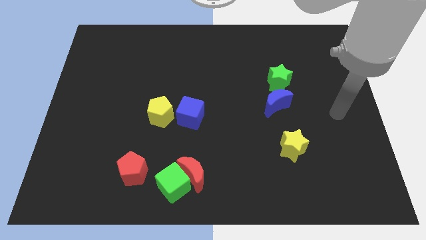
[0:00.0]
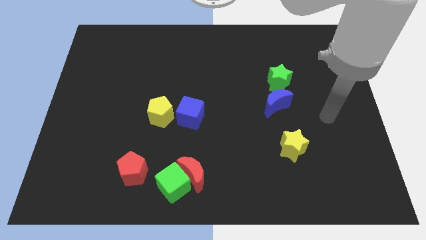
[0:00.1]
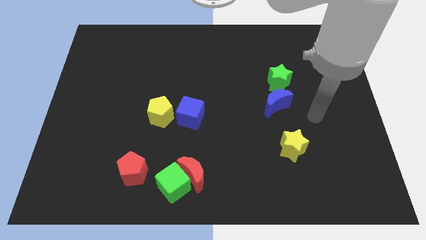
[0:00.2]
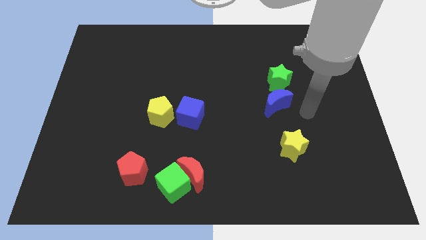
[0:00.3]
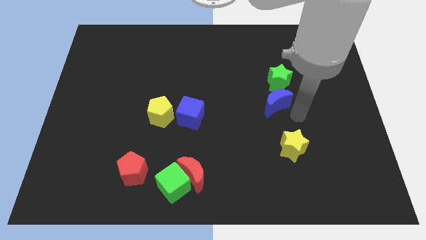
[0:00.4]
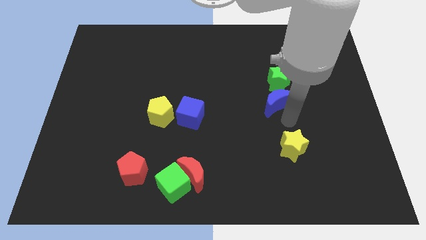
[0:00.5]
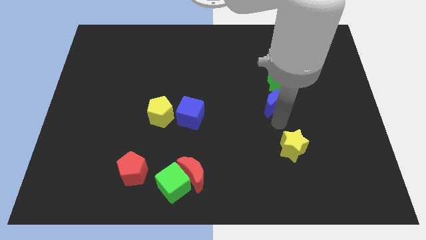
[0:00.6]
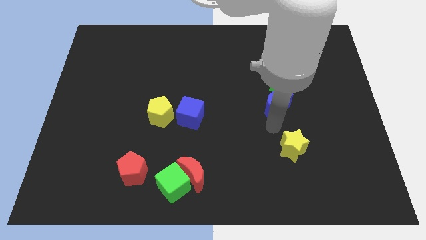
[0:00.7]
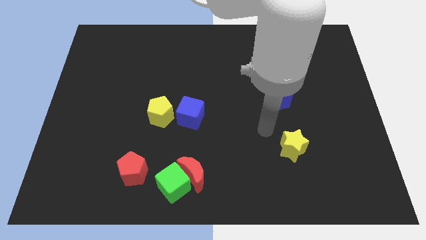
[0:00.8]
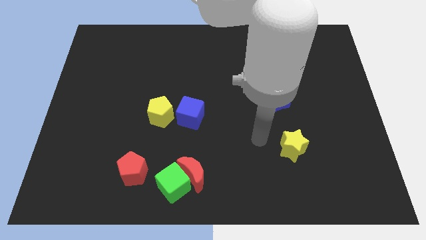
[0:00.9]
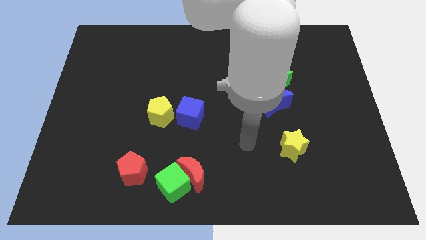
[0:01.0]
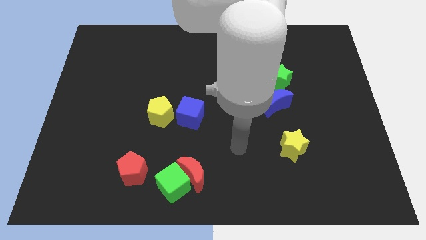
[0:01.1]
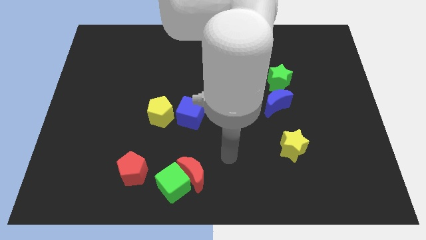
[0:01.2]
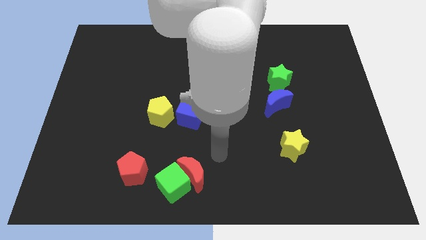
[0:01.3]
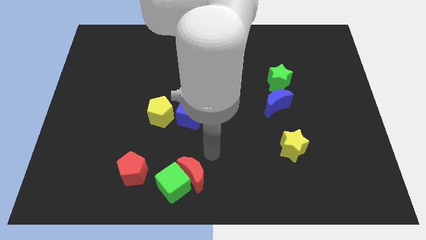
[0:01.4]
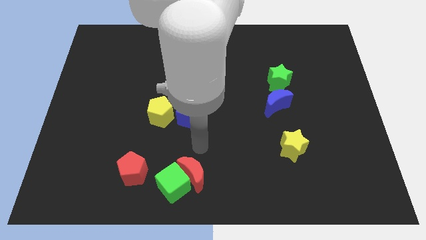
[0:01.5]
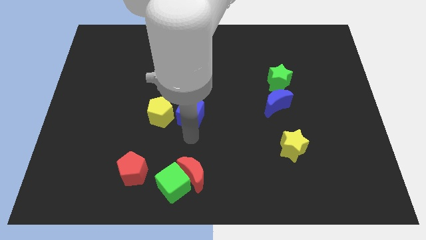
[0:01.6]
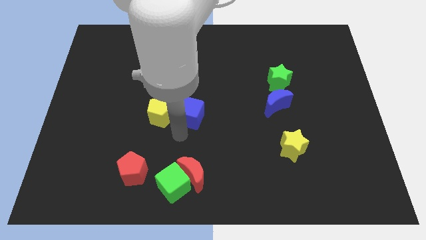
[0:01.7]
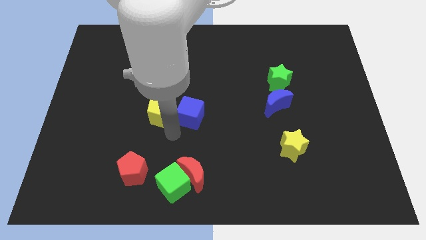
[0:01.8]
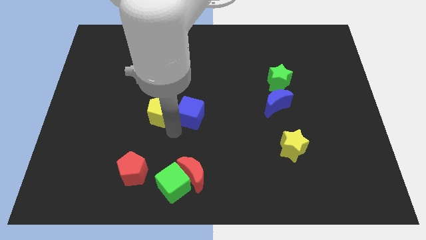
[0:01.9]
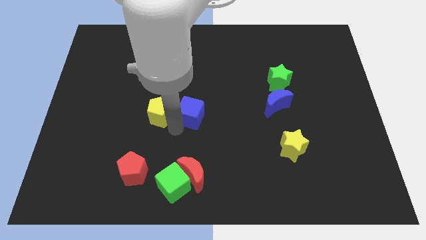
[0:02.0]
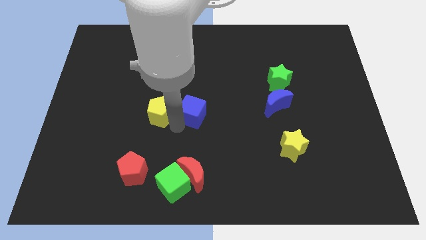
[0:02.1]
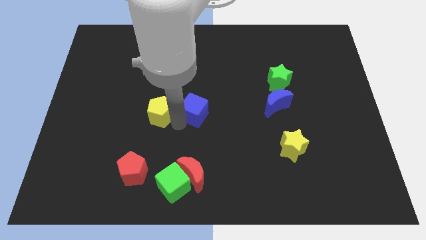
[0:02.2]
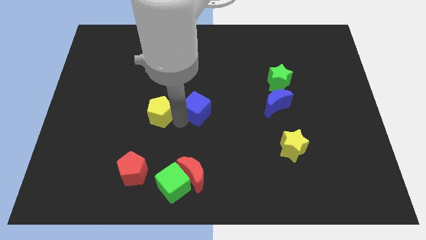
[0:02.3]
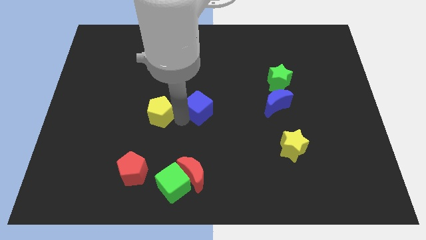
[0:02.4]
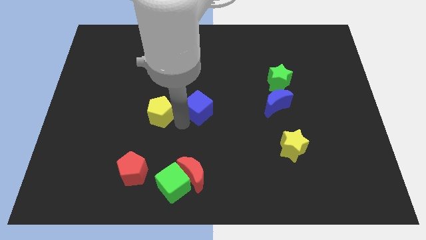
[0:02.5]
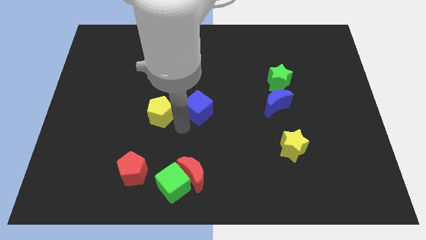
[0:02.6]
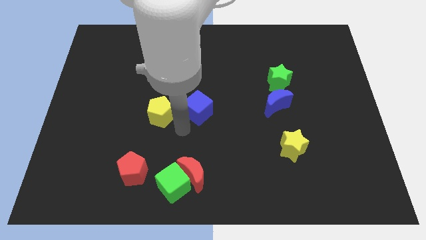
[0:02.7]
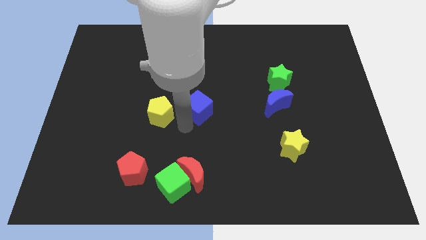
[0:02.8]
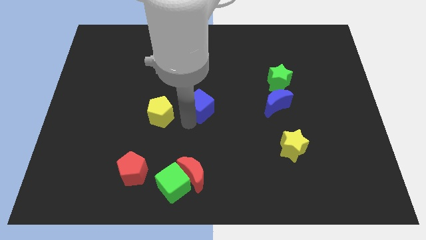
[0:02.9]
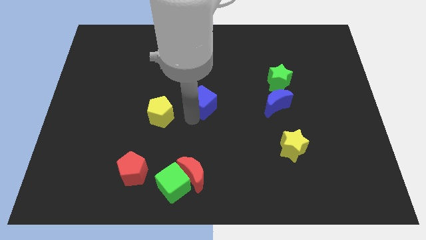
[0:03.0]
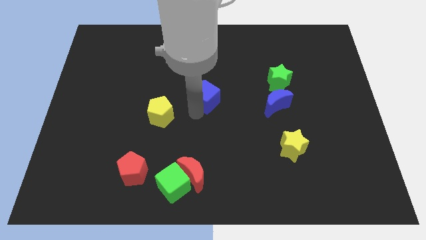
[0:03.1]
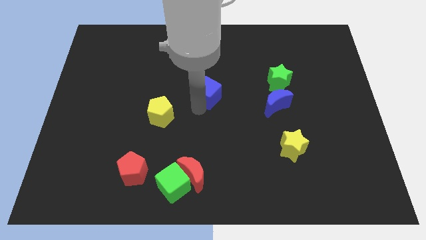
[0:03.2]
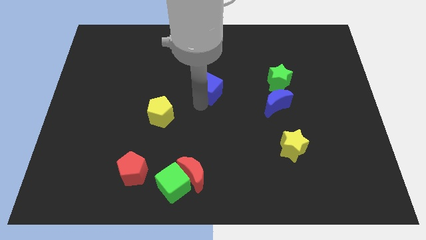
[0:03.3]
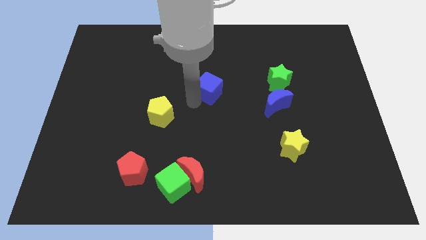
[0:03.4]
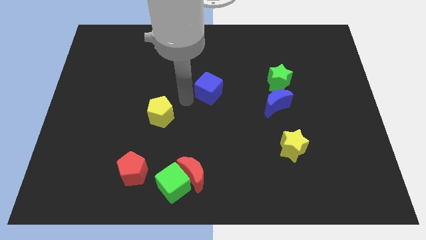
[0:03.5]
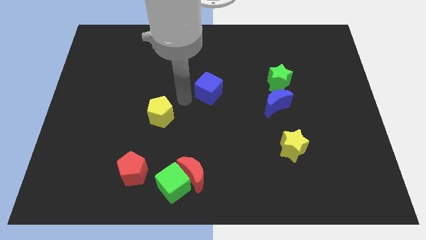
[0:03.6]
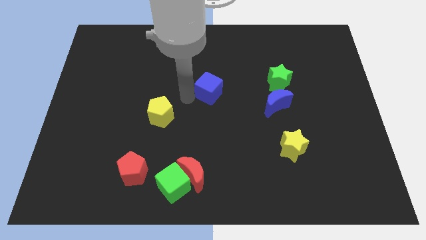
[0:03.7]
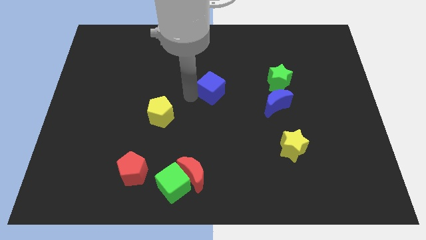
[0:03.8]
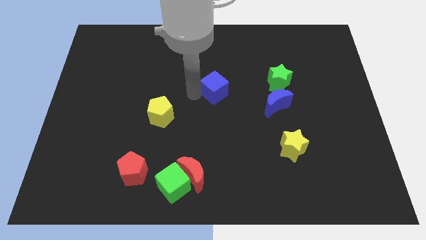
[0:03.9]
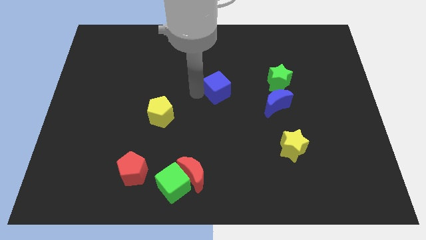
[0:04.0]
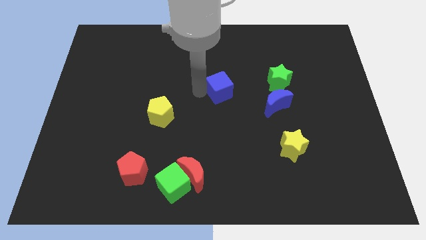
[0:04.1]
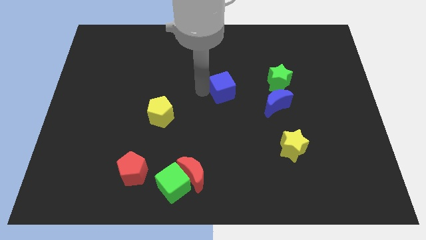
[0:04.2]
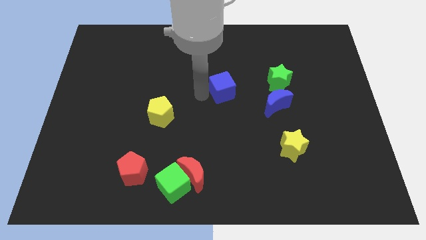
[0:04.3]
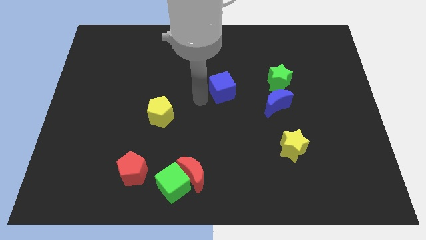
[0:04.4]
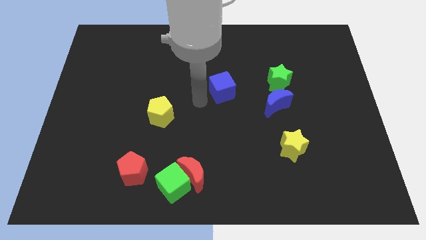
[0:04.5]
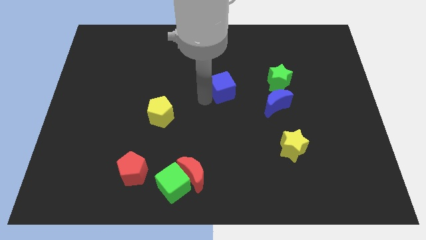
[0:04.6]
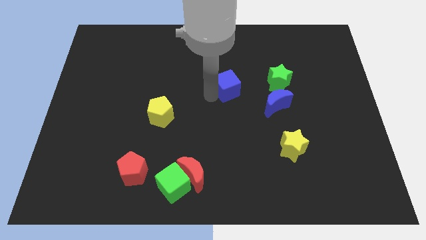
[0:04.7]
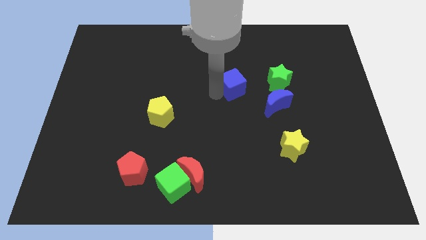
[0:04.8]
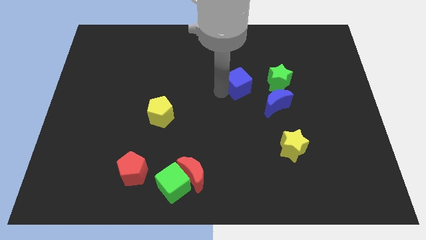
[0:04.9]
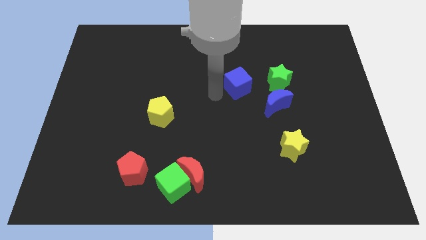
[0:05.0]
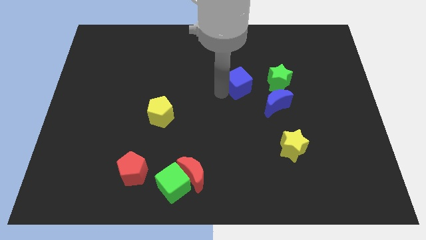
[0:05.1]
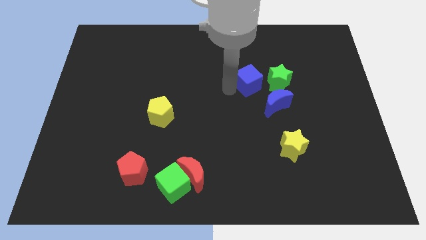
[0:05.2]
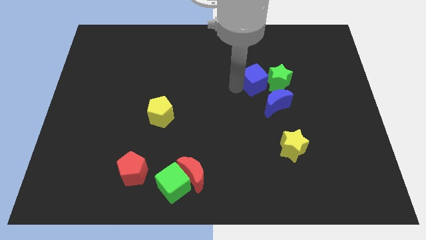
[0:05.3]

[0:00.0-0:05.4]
move the blue cube above the blue moon

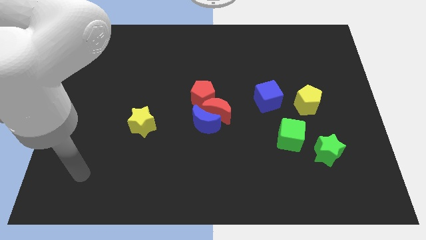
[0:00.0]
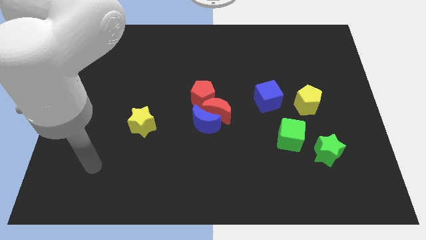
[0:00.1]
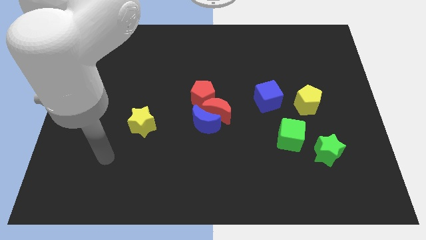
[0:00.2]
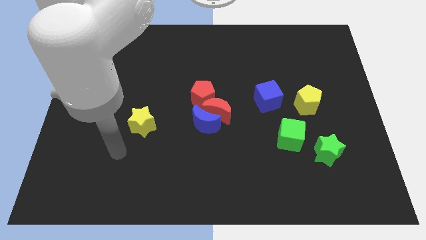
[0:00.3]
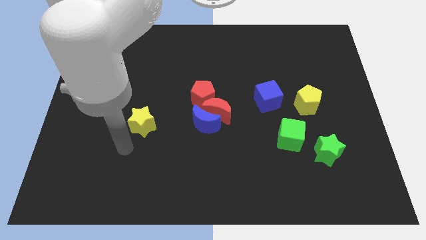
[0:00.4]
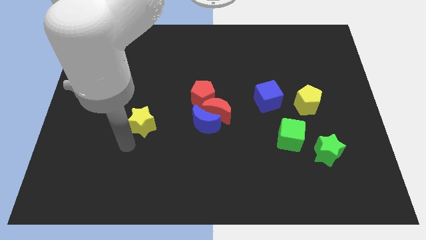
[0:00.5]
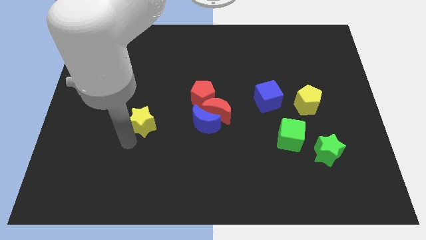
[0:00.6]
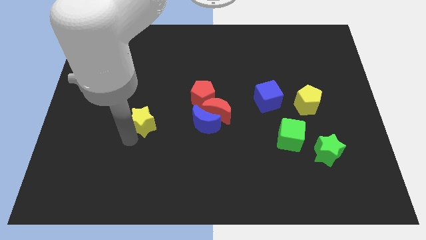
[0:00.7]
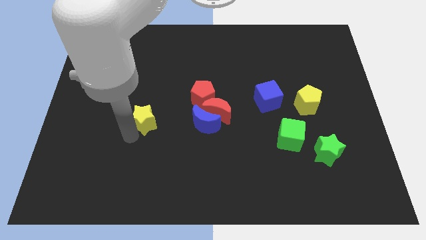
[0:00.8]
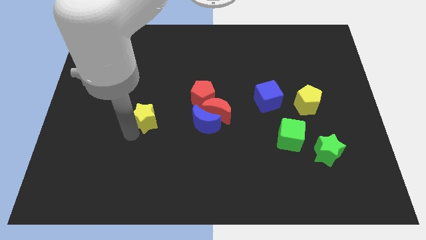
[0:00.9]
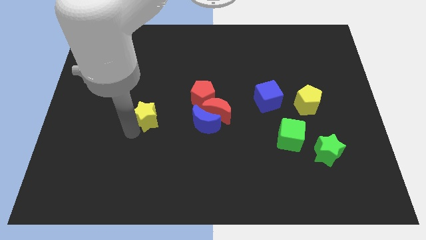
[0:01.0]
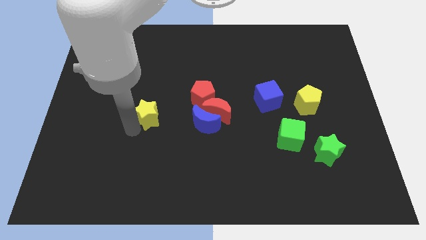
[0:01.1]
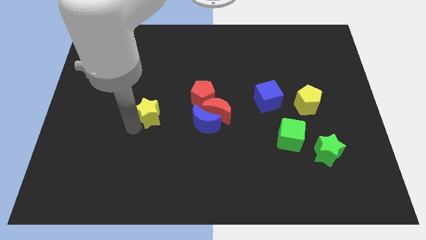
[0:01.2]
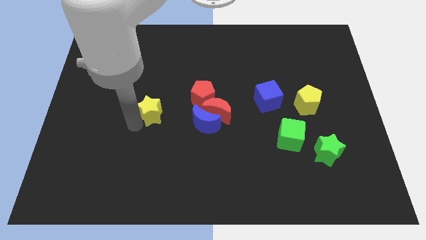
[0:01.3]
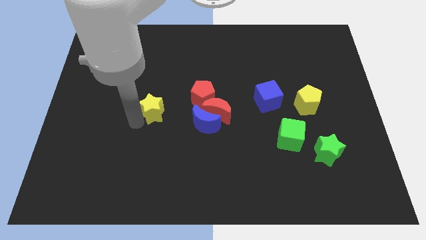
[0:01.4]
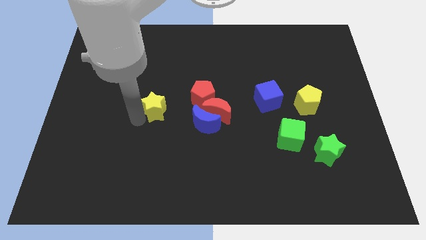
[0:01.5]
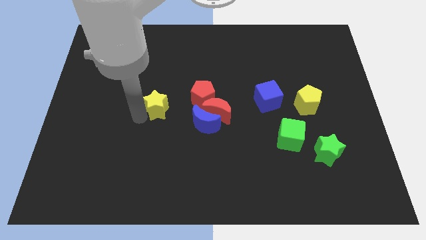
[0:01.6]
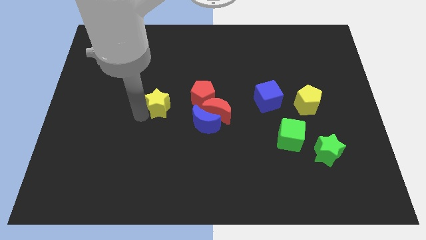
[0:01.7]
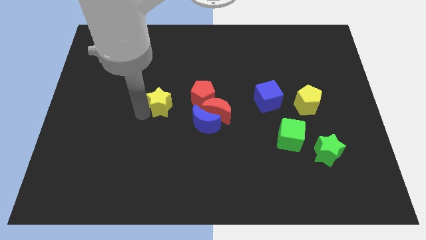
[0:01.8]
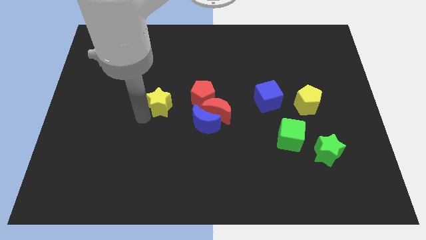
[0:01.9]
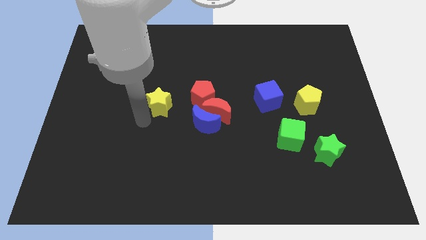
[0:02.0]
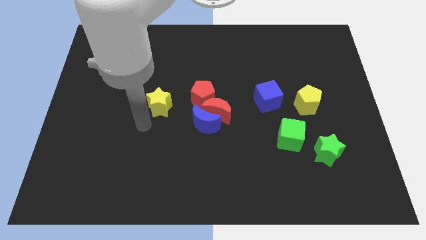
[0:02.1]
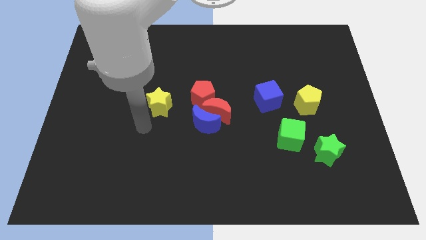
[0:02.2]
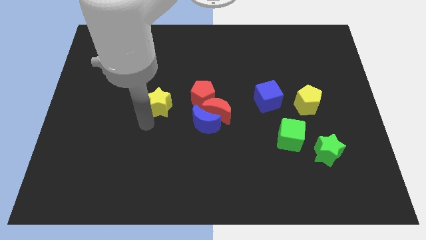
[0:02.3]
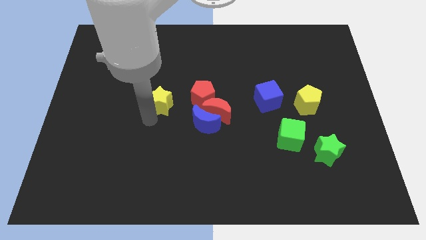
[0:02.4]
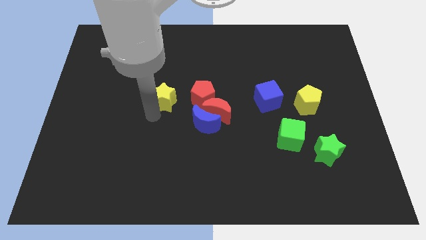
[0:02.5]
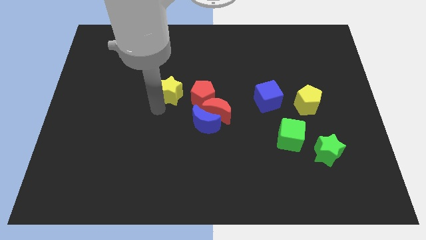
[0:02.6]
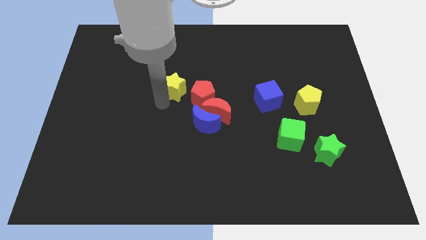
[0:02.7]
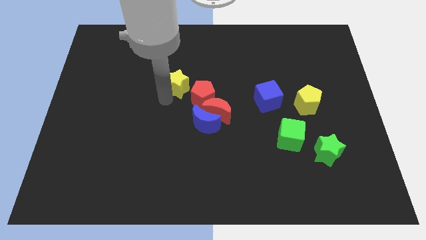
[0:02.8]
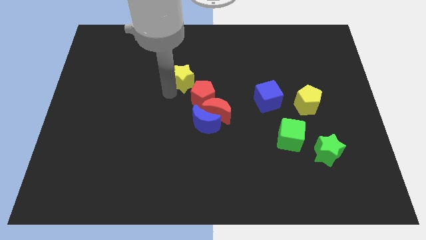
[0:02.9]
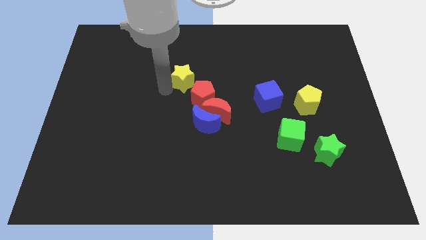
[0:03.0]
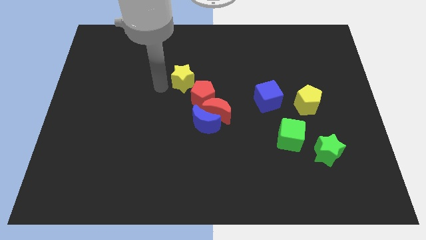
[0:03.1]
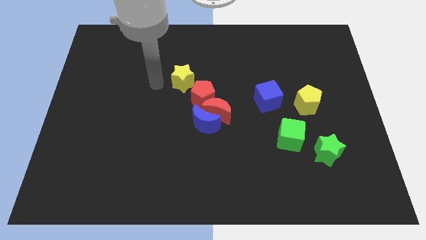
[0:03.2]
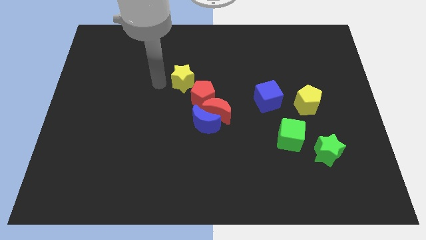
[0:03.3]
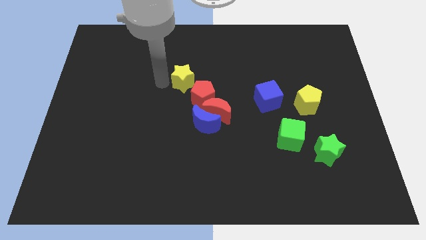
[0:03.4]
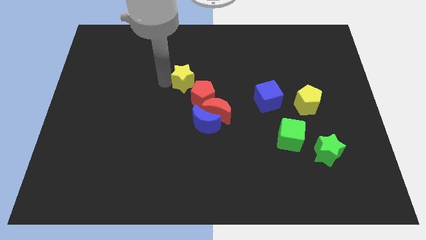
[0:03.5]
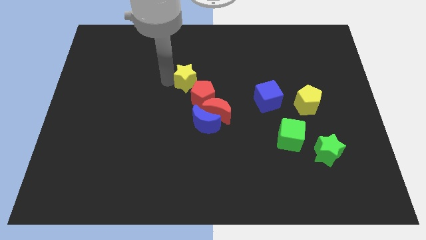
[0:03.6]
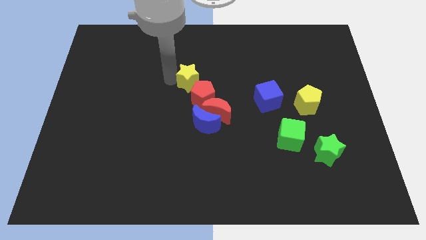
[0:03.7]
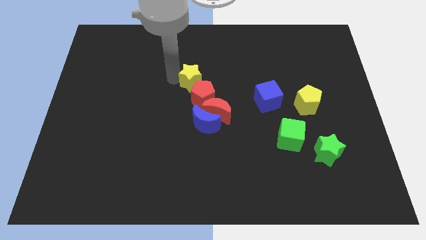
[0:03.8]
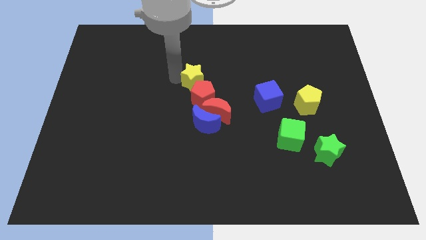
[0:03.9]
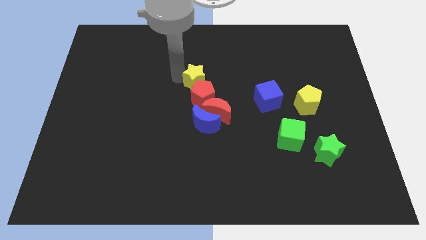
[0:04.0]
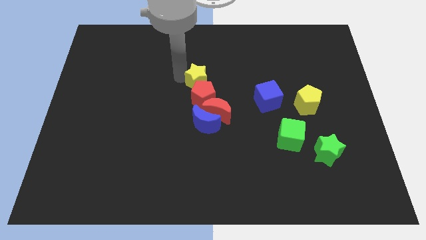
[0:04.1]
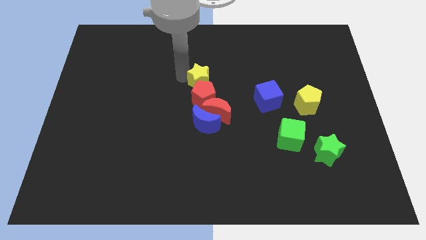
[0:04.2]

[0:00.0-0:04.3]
push the yellow star diagonally up and to the right of the red pentagon
